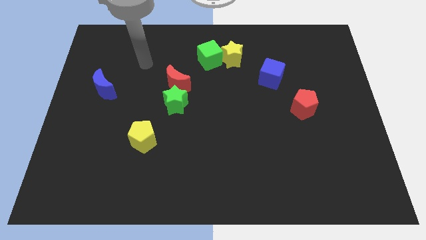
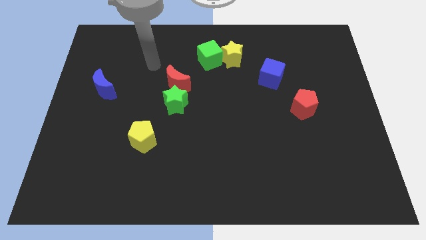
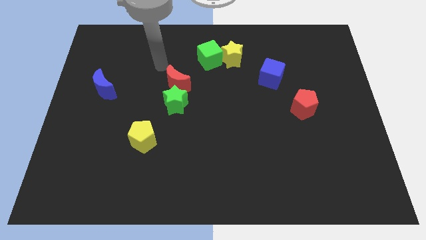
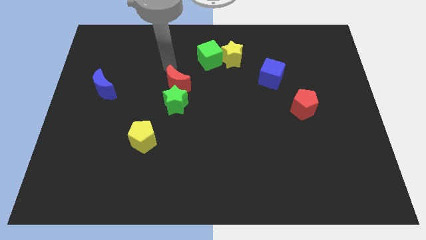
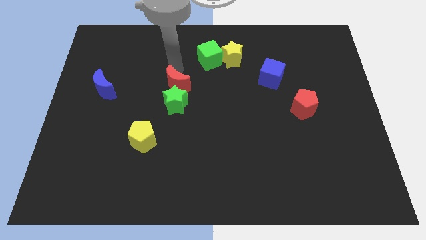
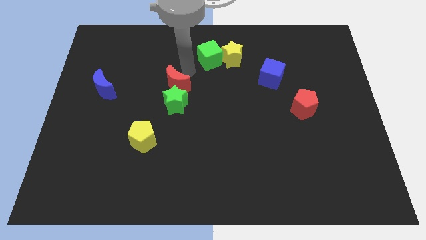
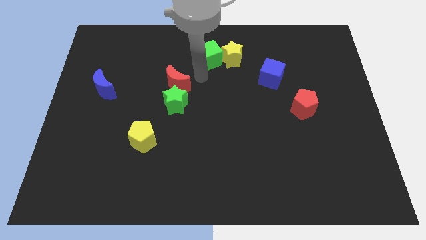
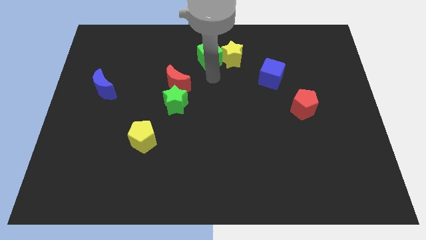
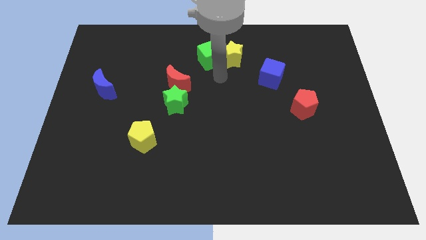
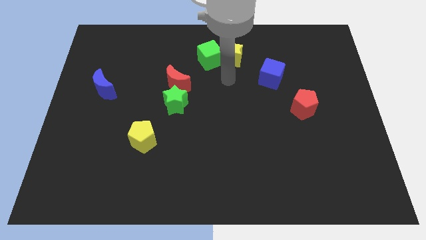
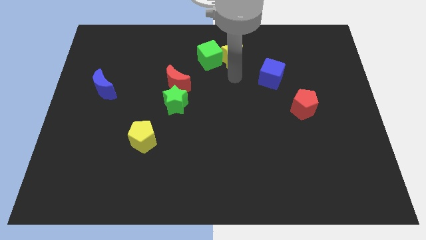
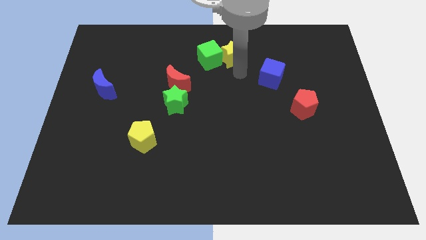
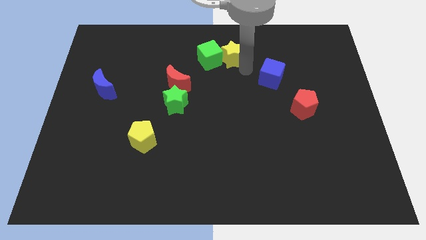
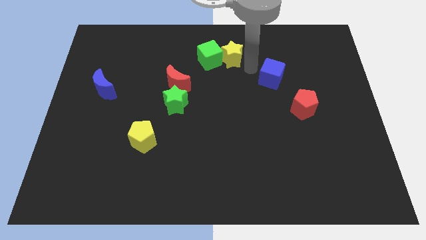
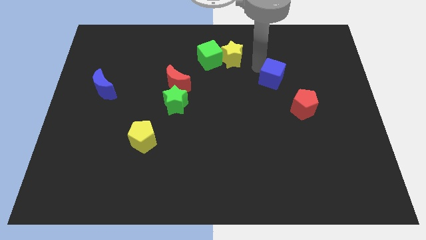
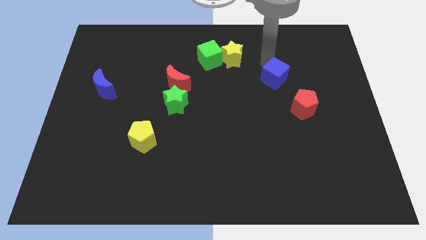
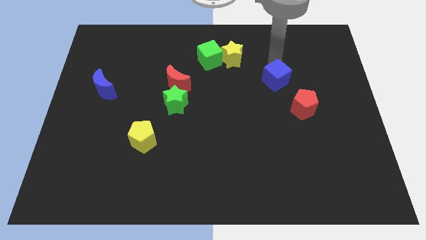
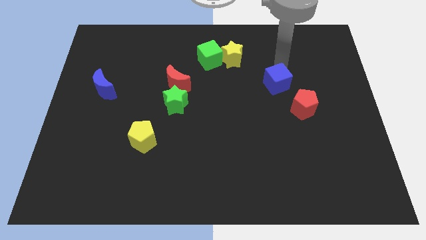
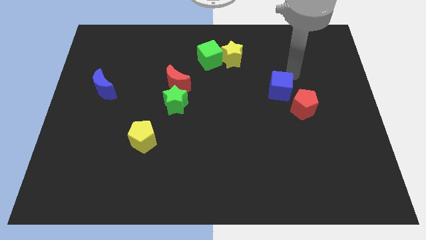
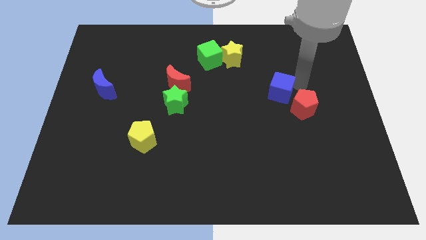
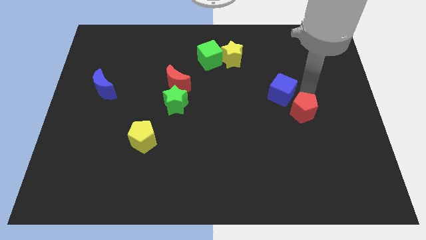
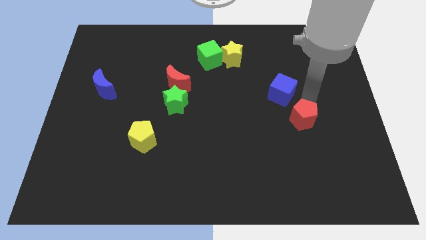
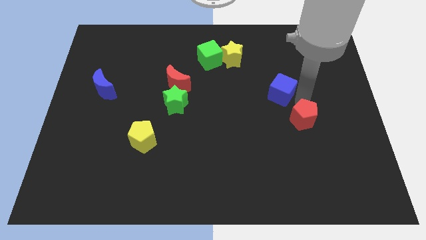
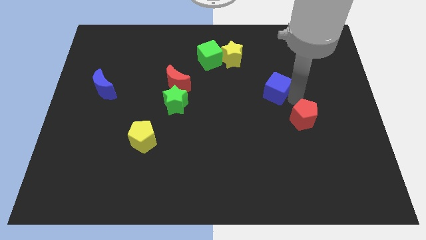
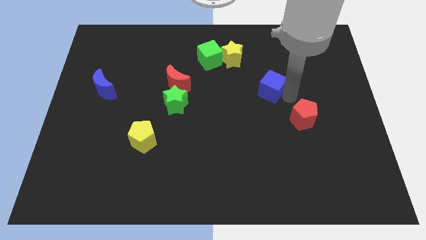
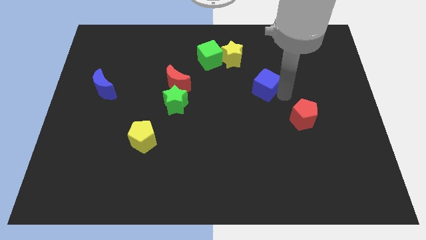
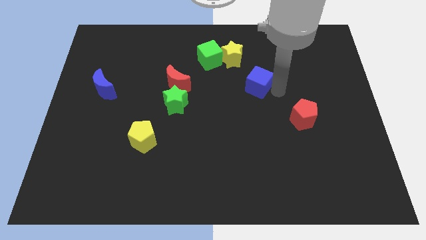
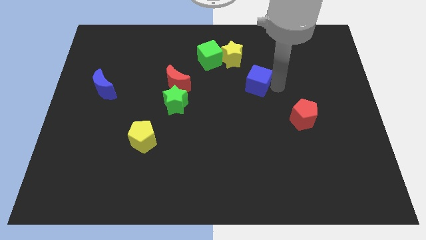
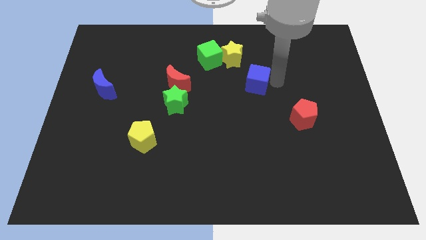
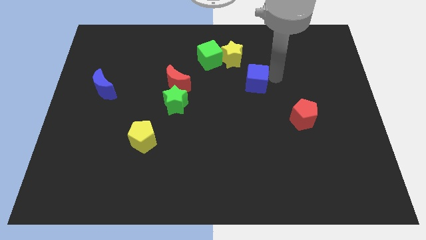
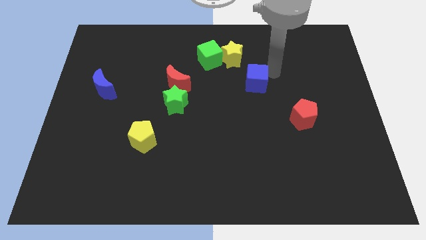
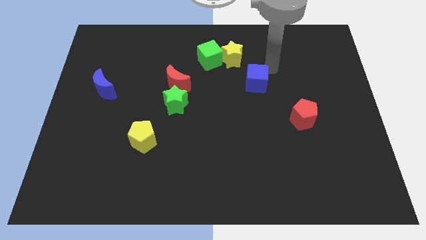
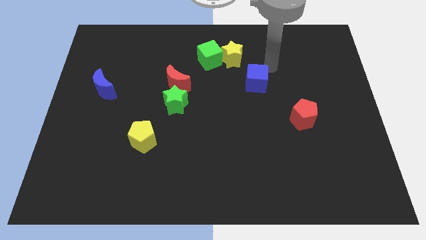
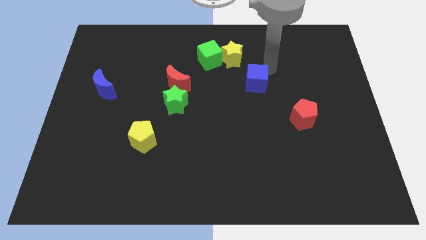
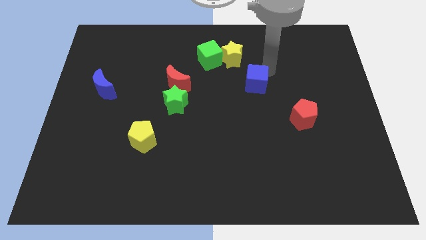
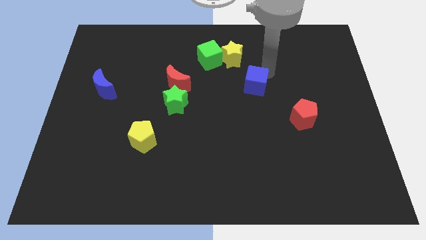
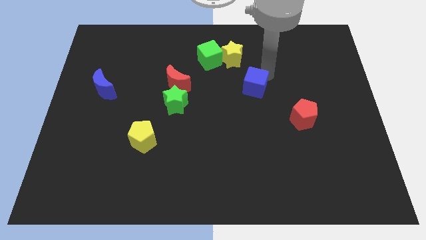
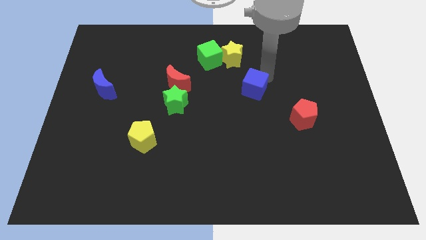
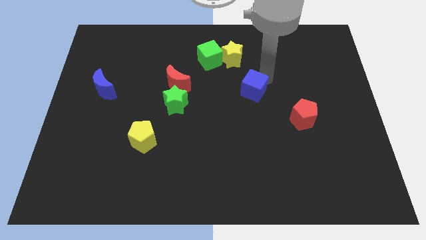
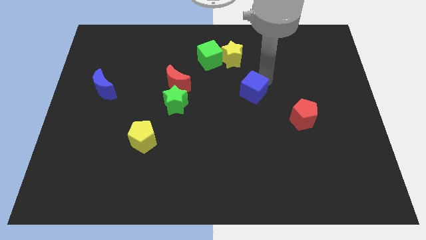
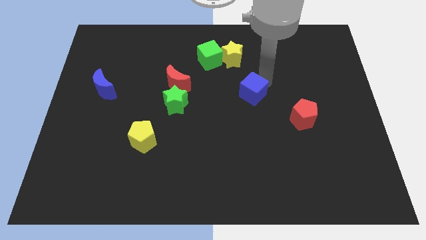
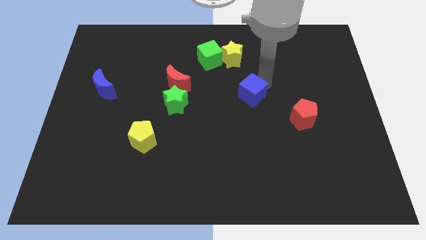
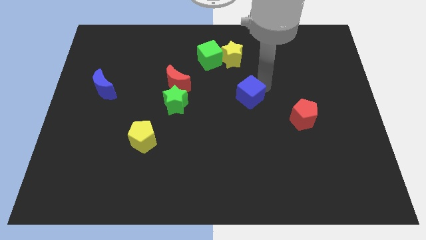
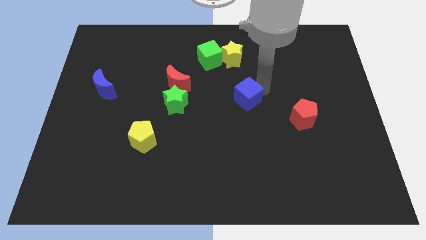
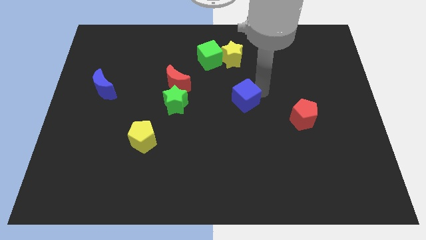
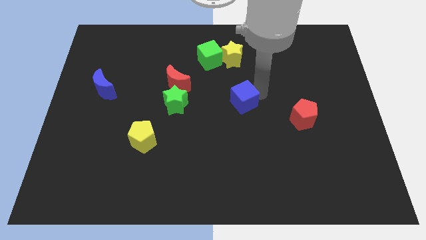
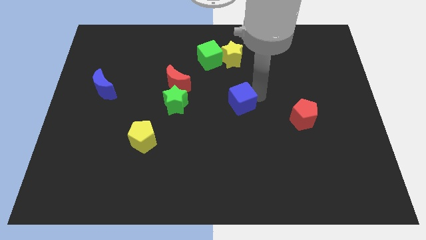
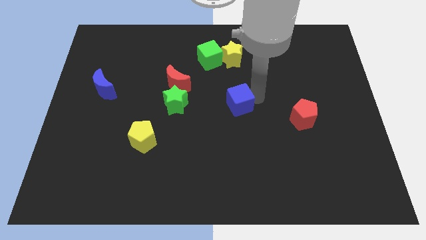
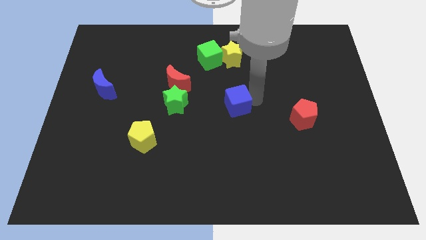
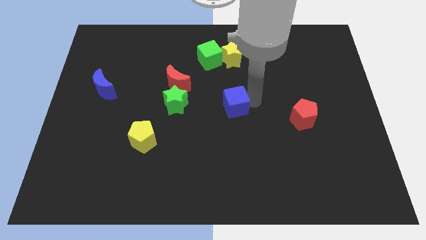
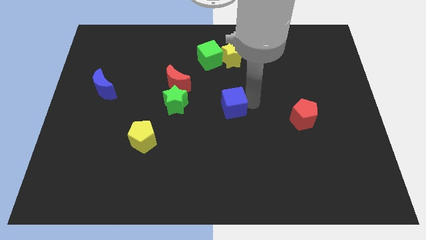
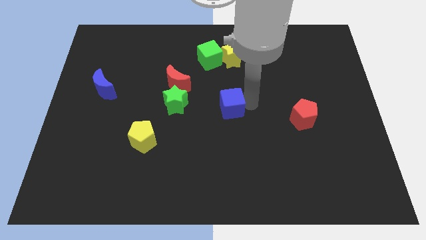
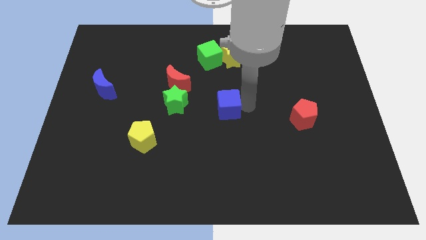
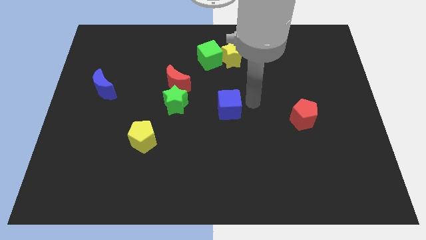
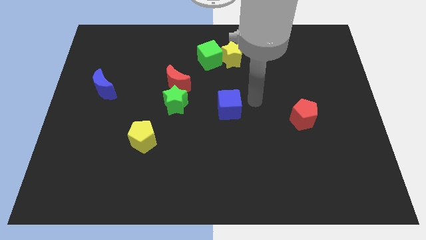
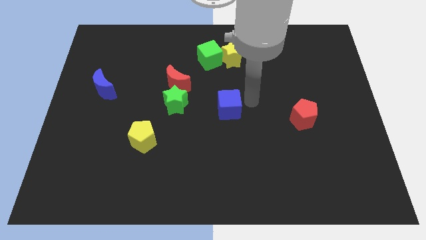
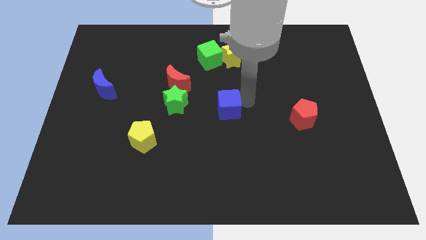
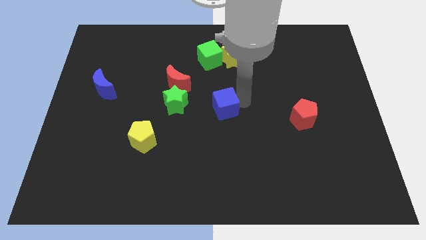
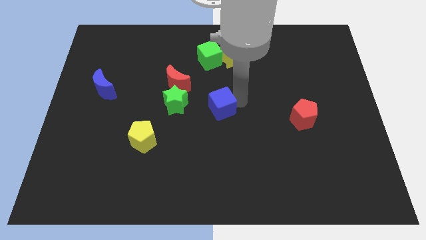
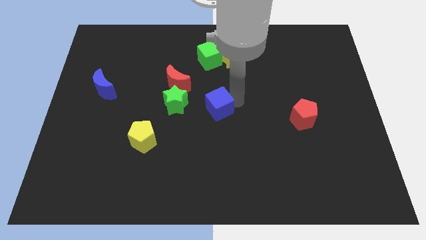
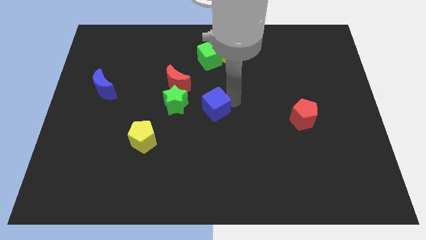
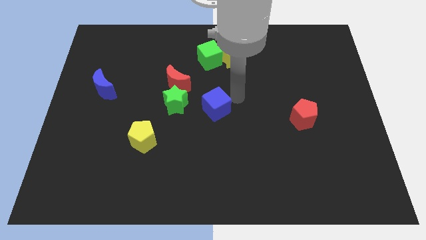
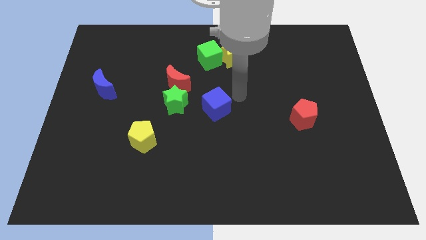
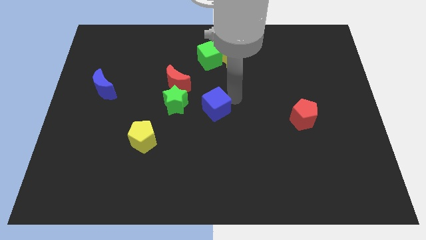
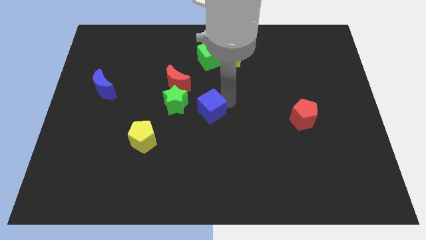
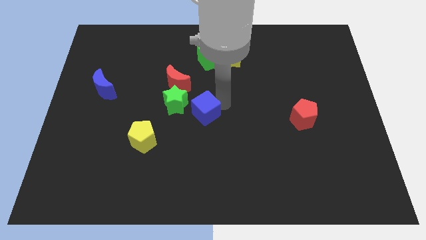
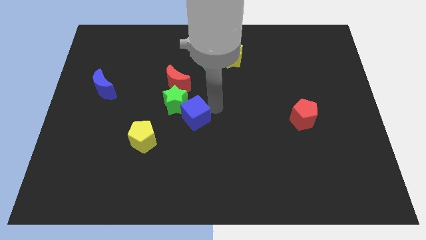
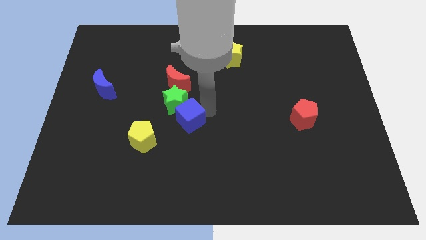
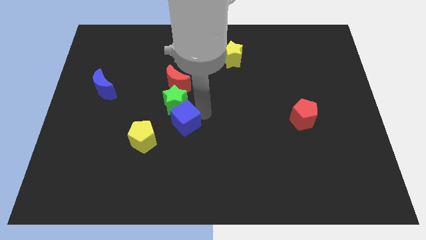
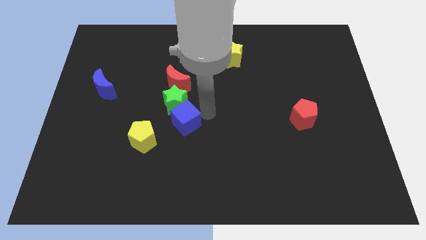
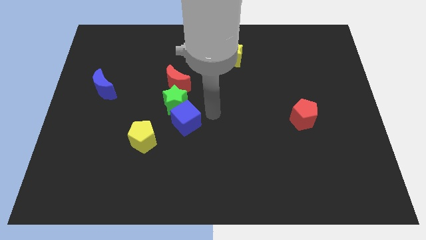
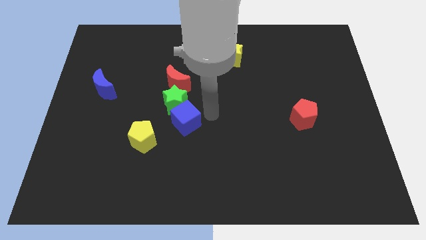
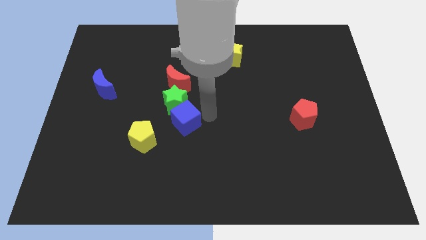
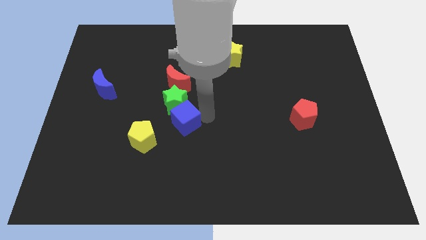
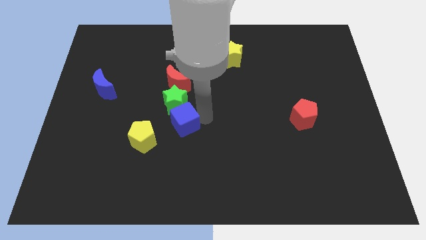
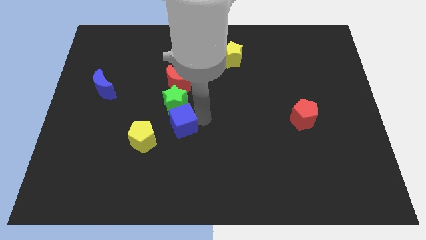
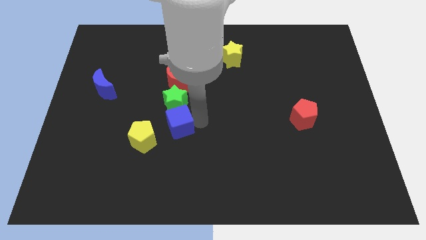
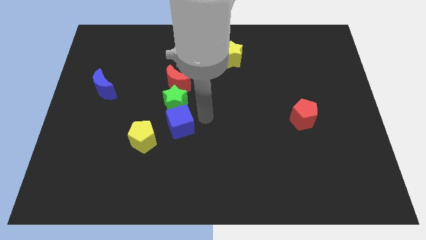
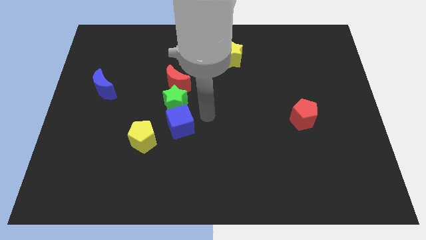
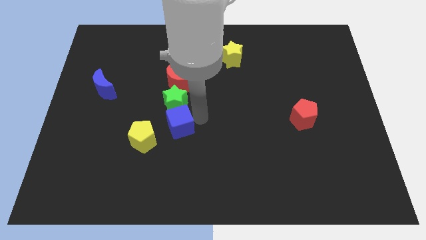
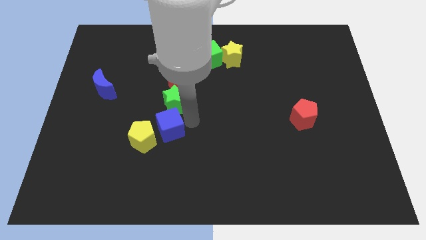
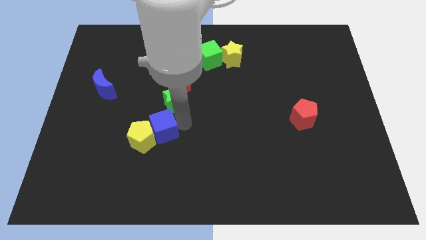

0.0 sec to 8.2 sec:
put the blue cube towards the yellow pentagon
